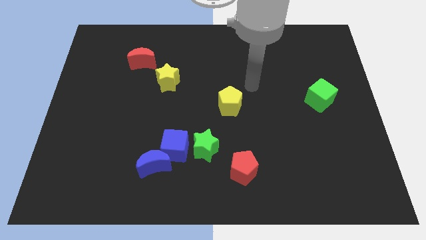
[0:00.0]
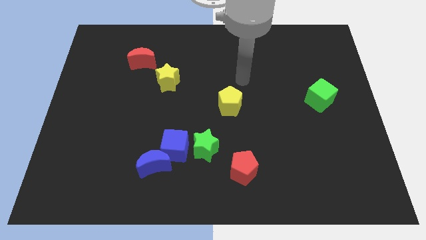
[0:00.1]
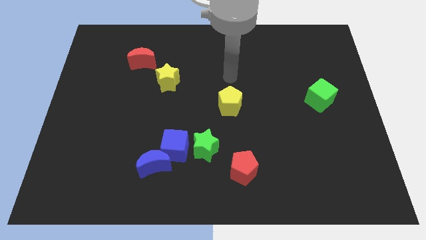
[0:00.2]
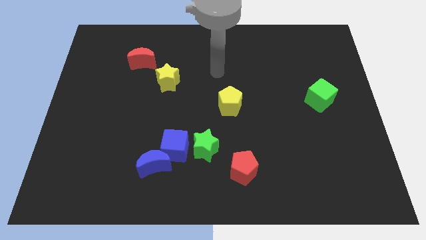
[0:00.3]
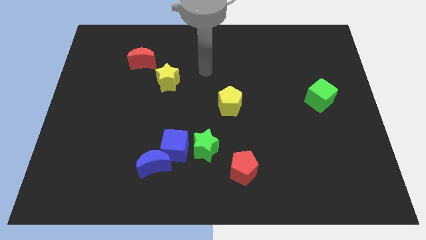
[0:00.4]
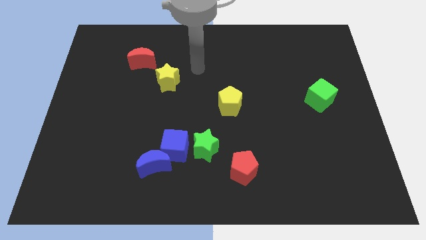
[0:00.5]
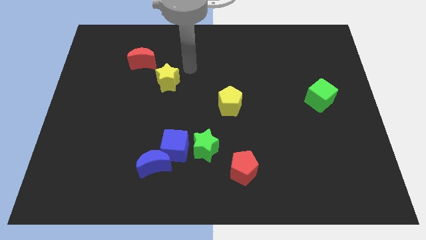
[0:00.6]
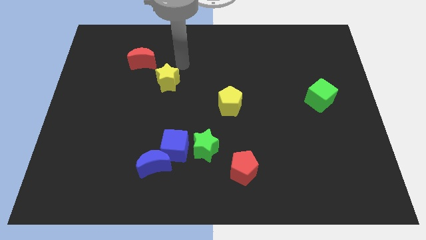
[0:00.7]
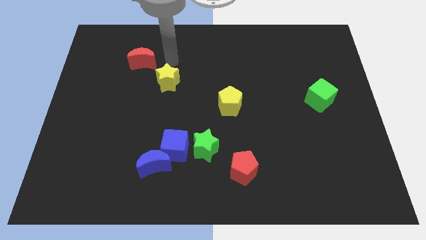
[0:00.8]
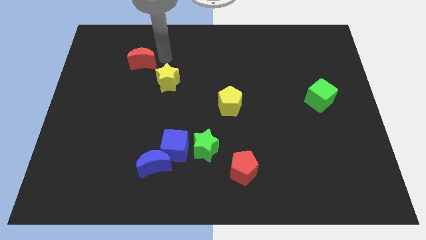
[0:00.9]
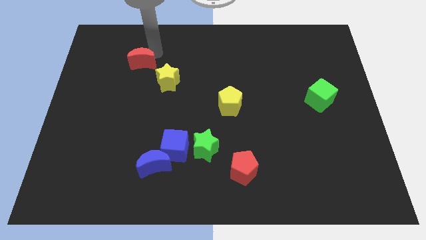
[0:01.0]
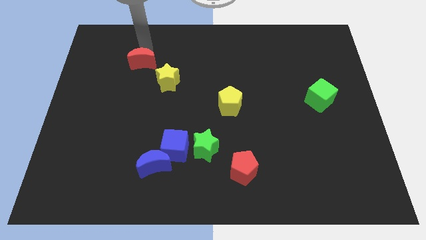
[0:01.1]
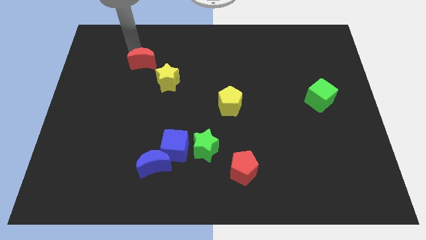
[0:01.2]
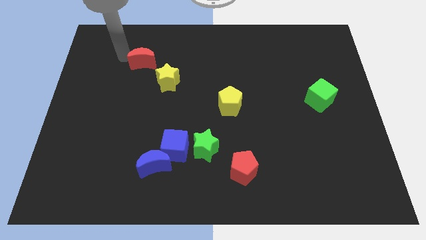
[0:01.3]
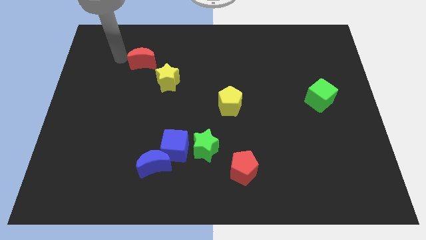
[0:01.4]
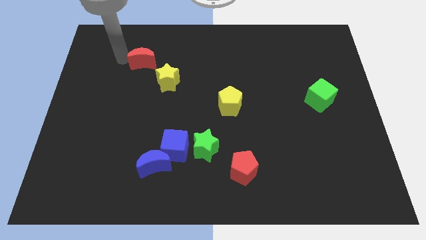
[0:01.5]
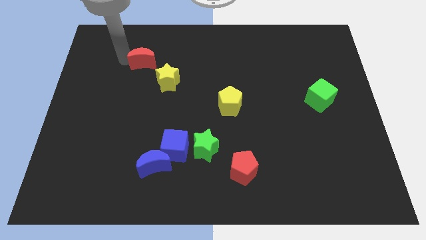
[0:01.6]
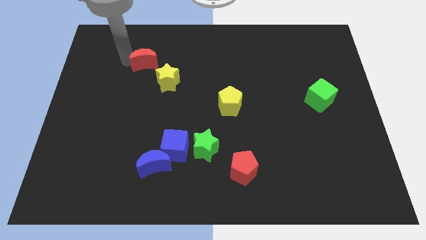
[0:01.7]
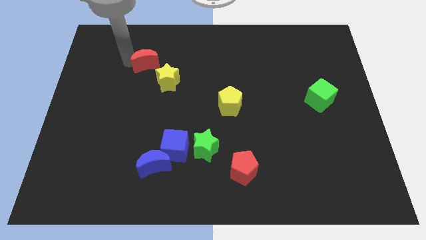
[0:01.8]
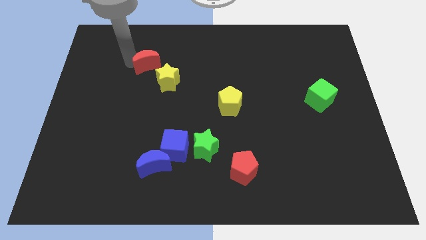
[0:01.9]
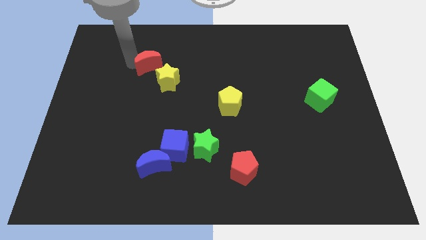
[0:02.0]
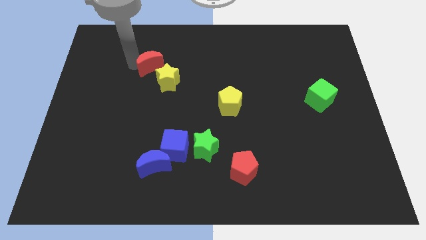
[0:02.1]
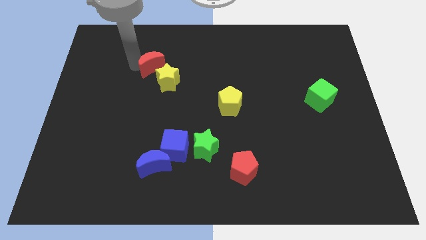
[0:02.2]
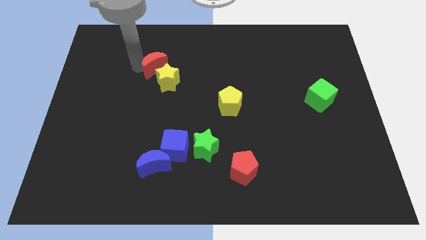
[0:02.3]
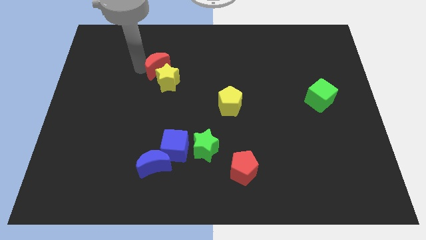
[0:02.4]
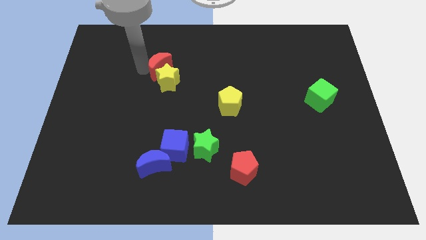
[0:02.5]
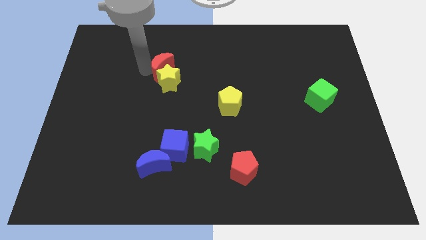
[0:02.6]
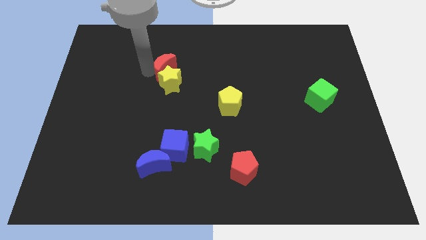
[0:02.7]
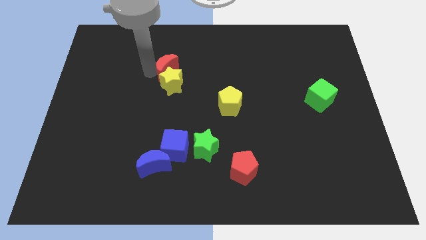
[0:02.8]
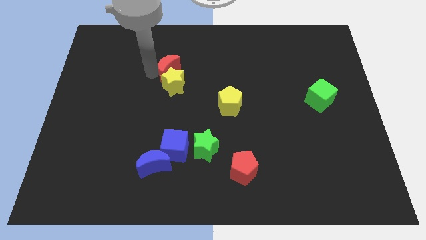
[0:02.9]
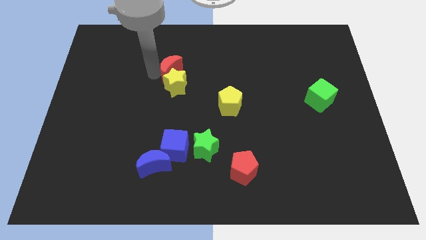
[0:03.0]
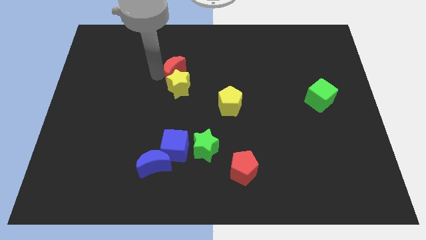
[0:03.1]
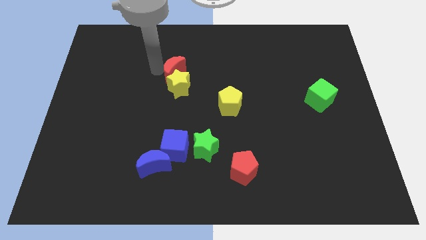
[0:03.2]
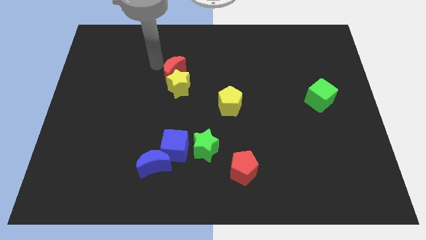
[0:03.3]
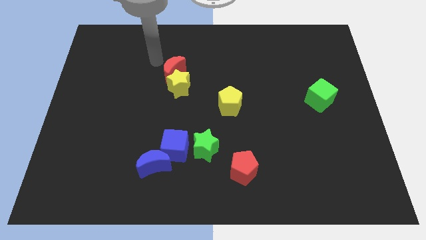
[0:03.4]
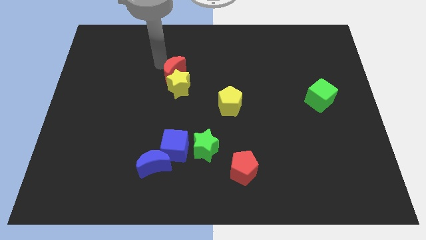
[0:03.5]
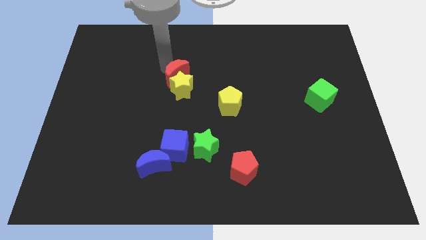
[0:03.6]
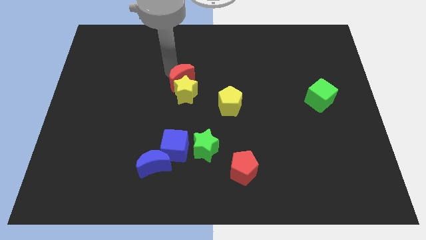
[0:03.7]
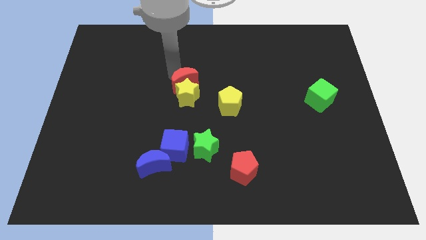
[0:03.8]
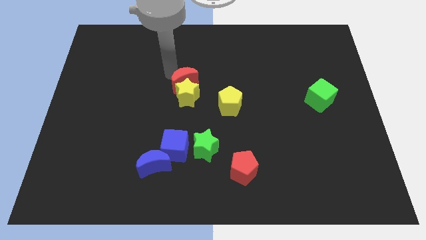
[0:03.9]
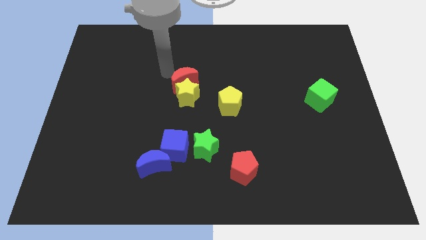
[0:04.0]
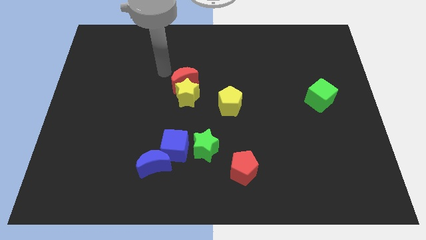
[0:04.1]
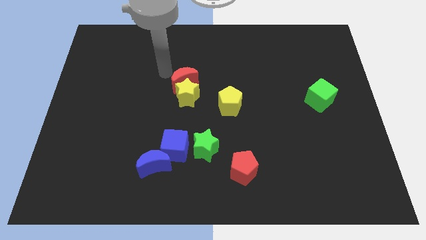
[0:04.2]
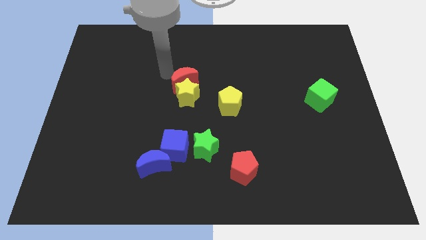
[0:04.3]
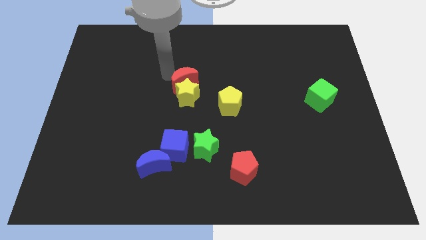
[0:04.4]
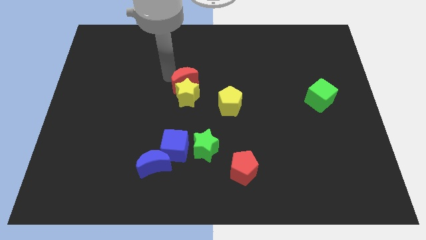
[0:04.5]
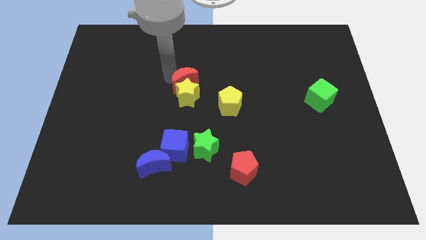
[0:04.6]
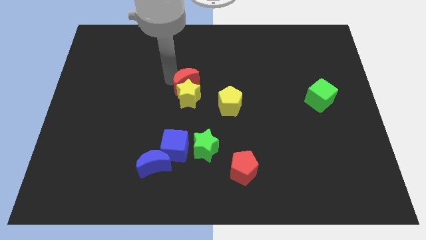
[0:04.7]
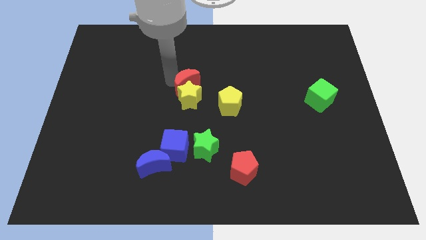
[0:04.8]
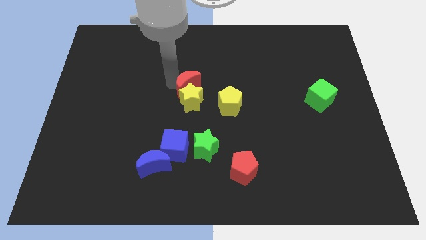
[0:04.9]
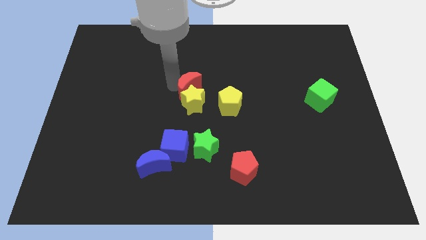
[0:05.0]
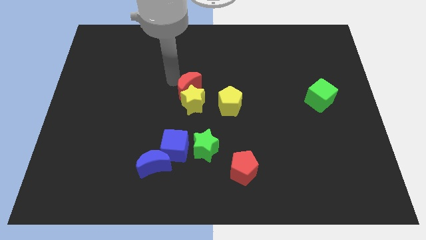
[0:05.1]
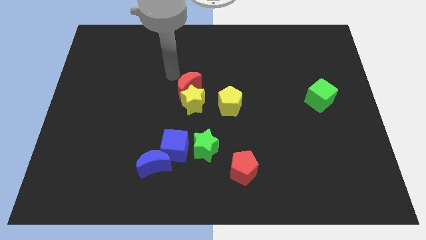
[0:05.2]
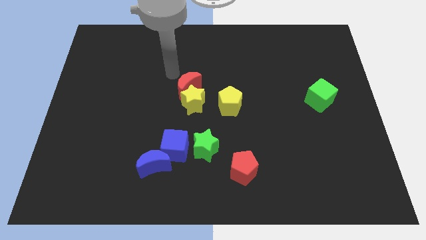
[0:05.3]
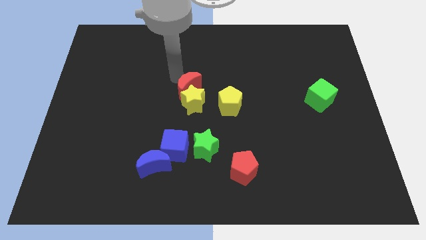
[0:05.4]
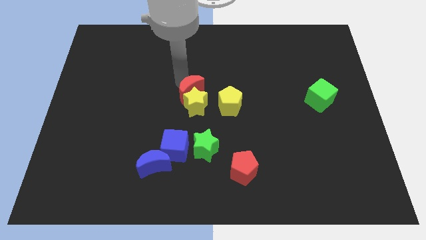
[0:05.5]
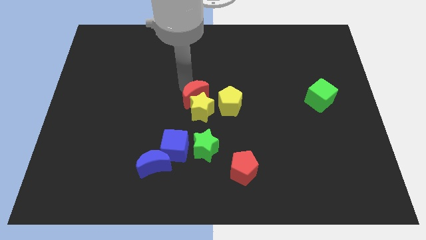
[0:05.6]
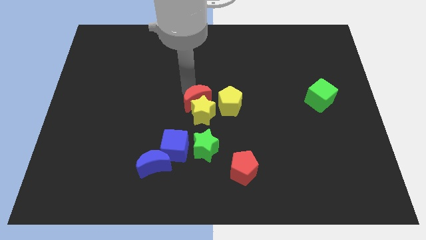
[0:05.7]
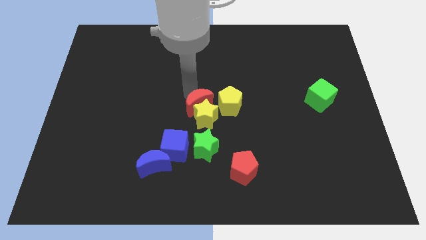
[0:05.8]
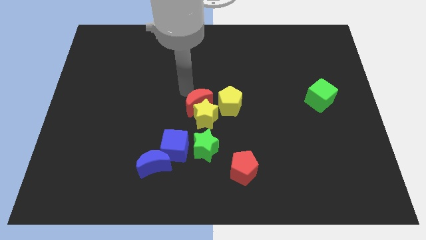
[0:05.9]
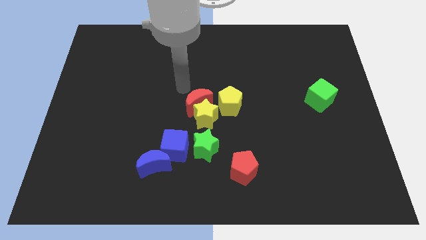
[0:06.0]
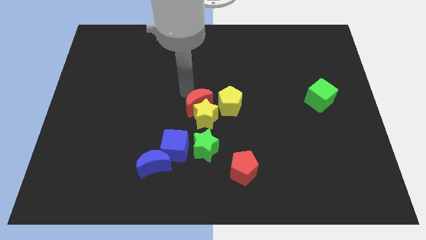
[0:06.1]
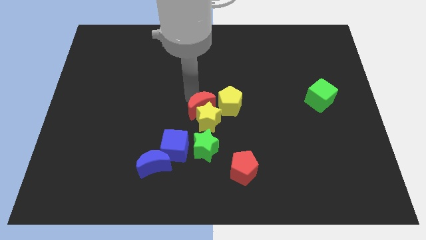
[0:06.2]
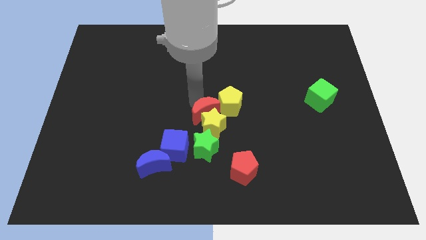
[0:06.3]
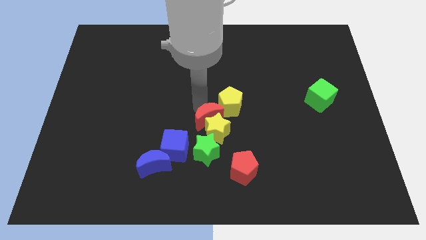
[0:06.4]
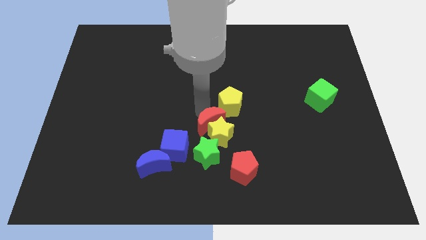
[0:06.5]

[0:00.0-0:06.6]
move the red moon below the yellow pentagon

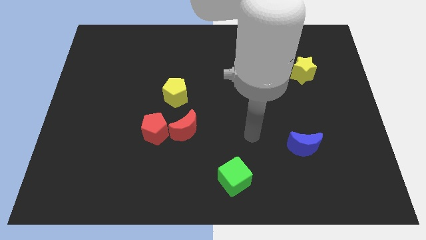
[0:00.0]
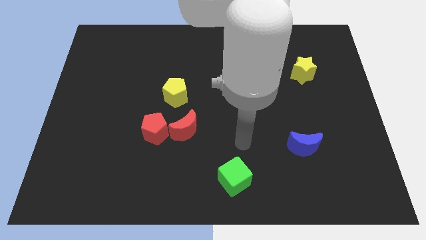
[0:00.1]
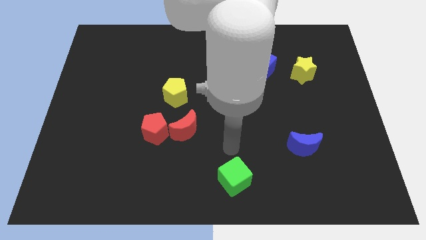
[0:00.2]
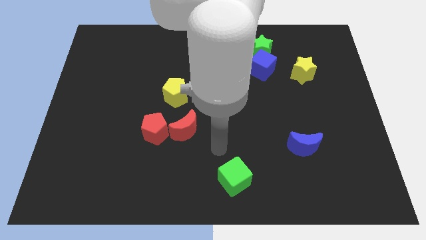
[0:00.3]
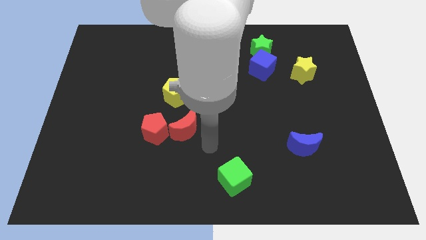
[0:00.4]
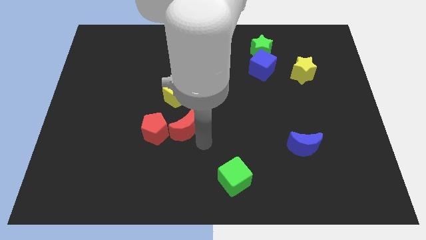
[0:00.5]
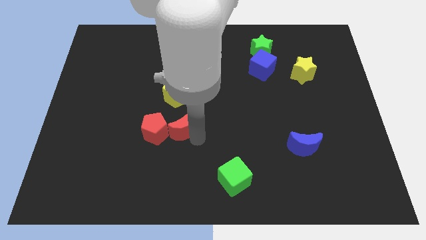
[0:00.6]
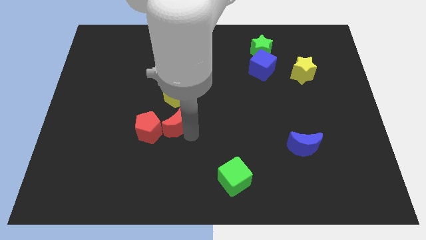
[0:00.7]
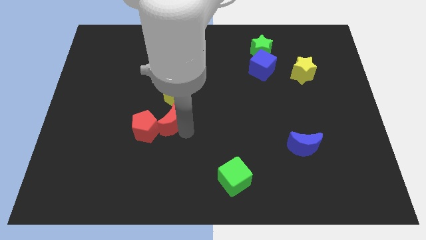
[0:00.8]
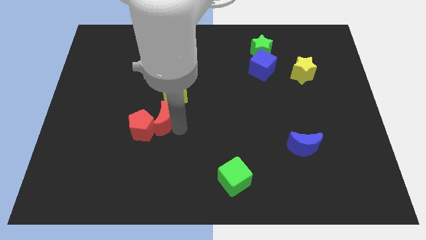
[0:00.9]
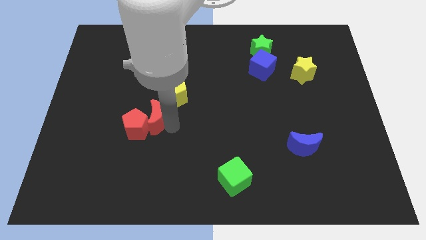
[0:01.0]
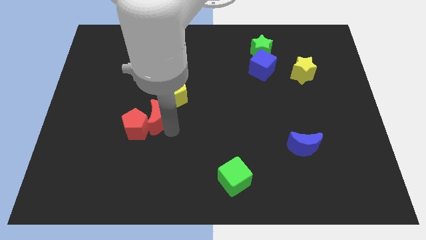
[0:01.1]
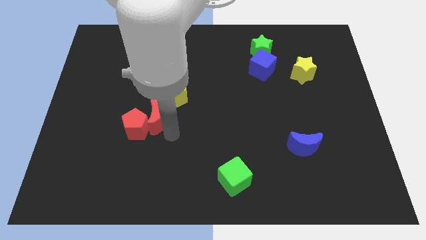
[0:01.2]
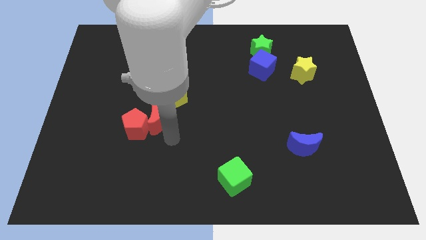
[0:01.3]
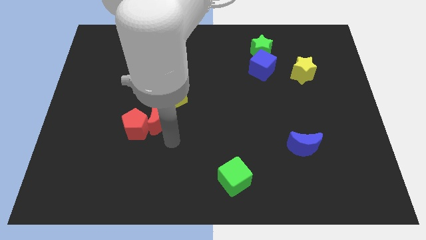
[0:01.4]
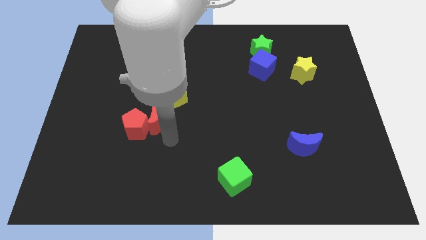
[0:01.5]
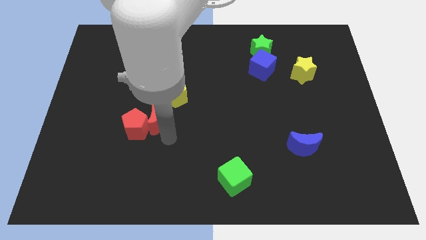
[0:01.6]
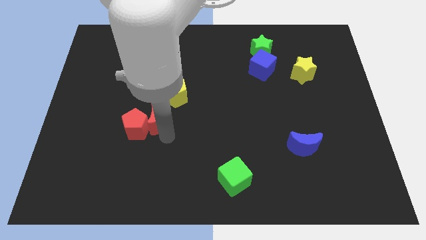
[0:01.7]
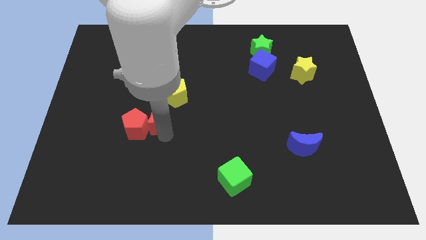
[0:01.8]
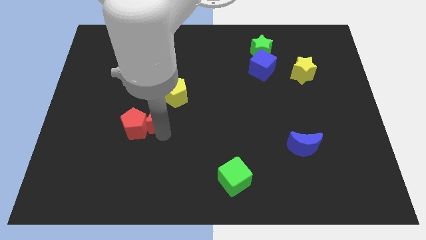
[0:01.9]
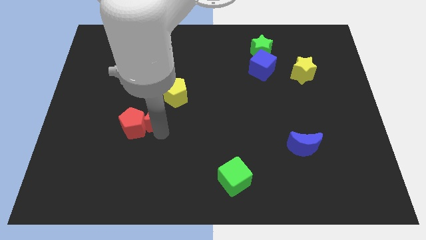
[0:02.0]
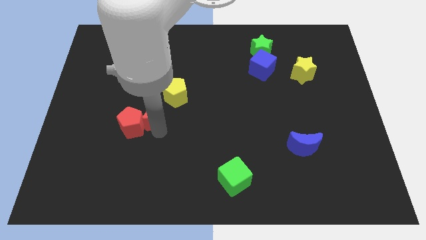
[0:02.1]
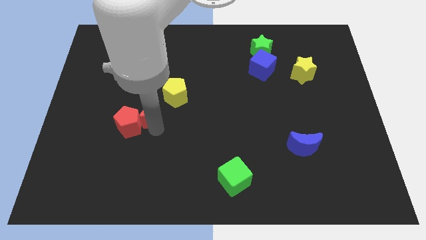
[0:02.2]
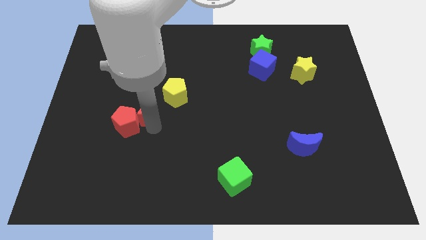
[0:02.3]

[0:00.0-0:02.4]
push the red moon left of the yellow pentagon
